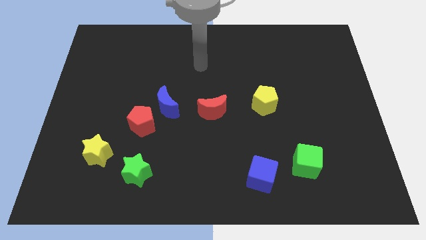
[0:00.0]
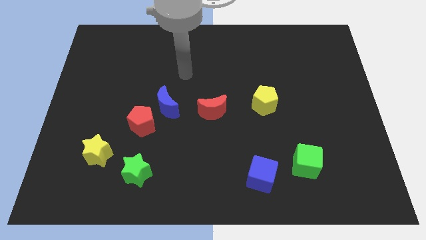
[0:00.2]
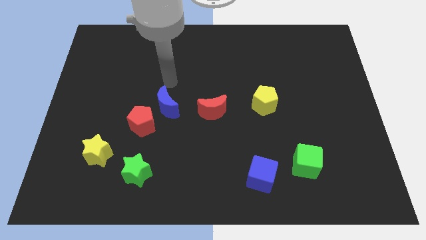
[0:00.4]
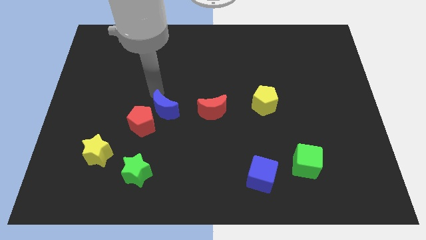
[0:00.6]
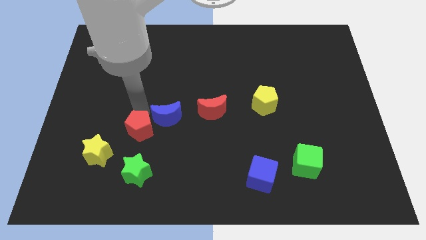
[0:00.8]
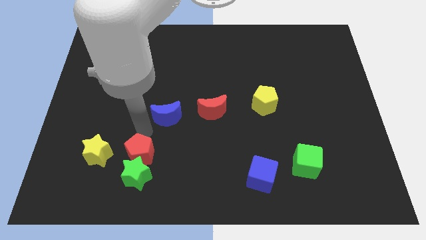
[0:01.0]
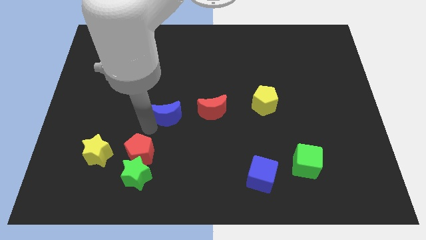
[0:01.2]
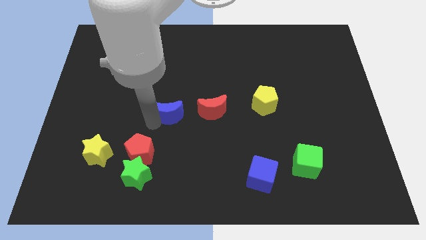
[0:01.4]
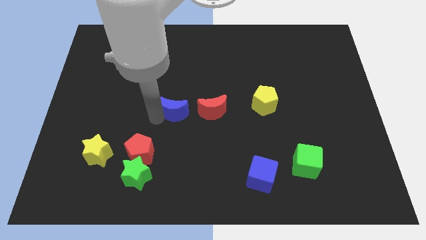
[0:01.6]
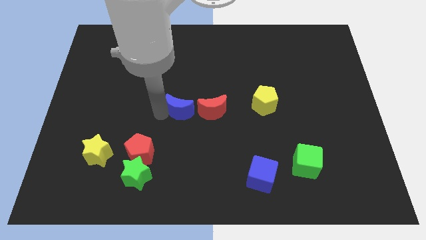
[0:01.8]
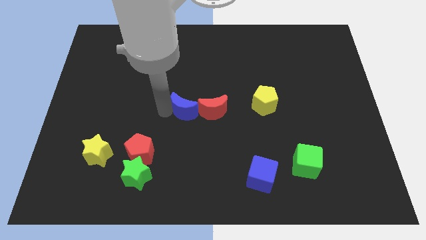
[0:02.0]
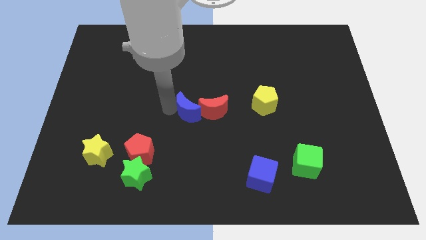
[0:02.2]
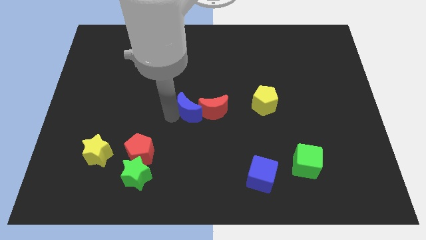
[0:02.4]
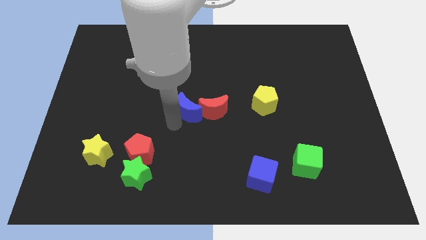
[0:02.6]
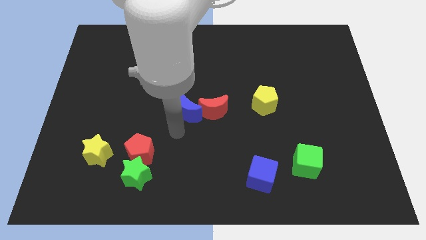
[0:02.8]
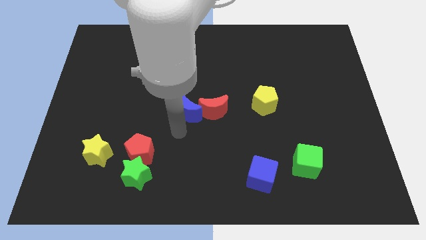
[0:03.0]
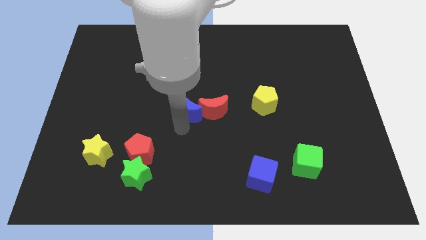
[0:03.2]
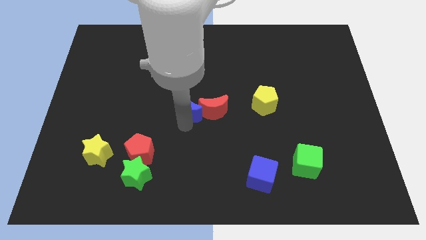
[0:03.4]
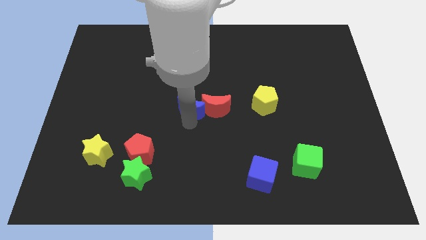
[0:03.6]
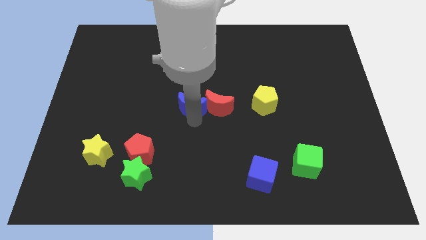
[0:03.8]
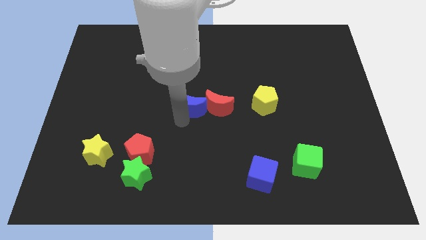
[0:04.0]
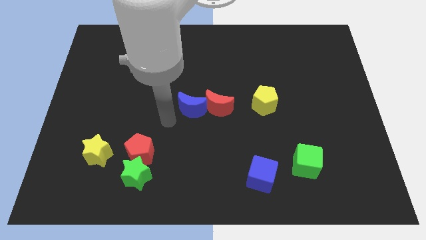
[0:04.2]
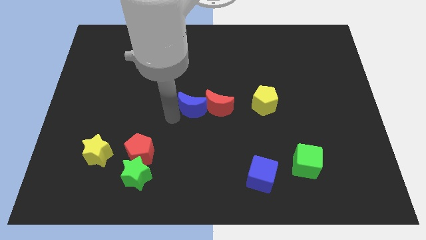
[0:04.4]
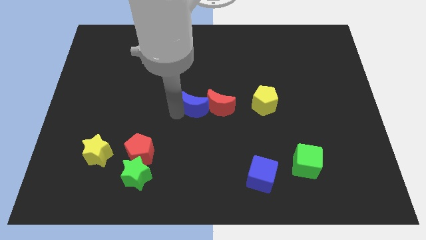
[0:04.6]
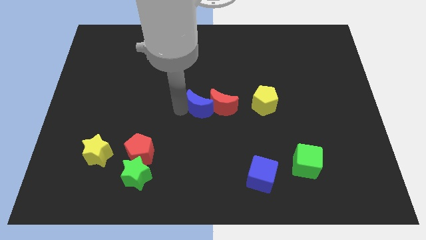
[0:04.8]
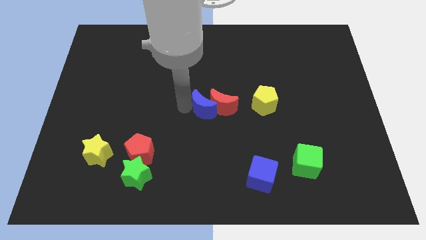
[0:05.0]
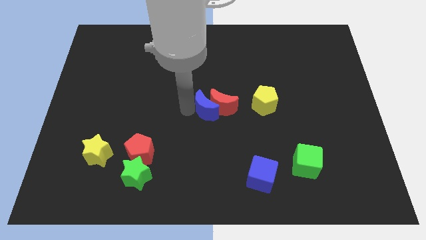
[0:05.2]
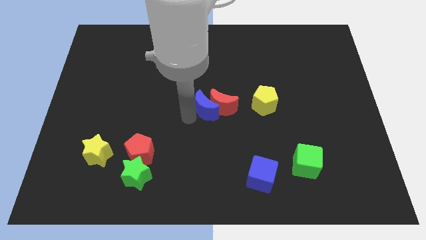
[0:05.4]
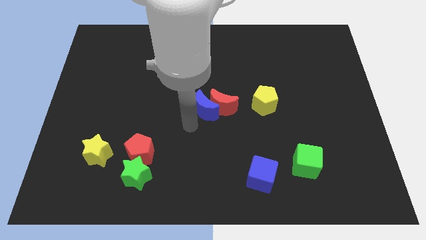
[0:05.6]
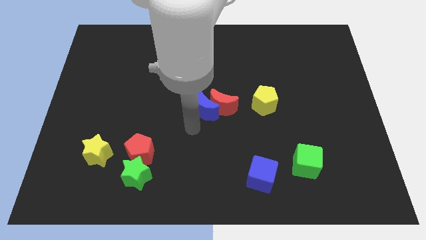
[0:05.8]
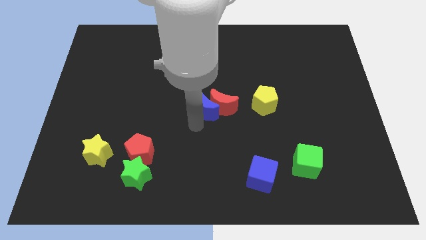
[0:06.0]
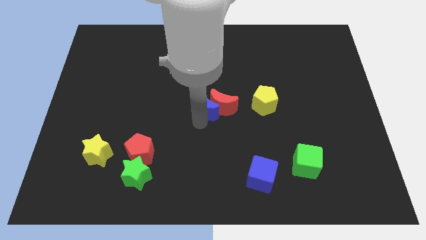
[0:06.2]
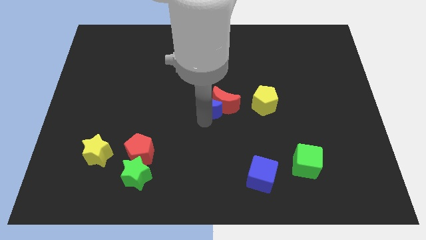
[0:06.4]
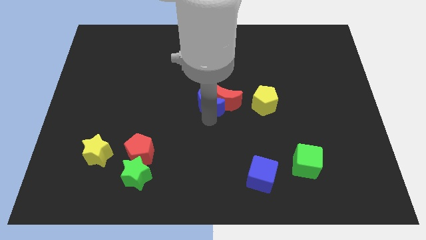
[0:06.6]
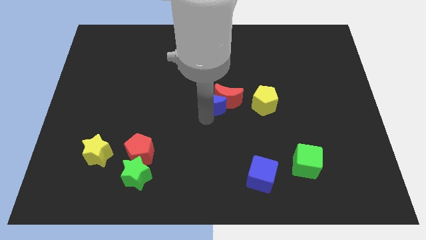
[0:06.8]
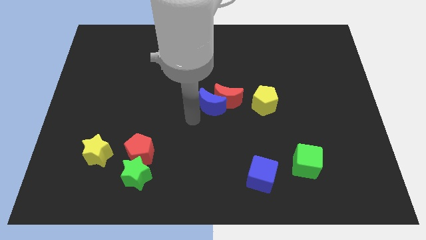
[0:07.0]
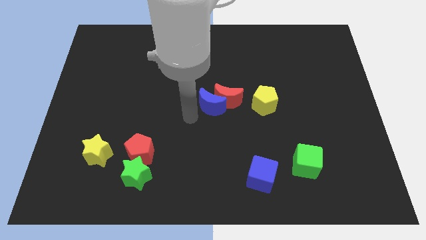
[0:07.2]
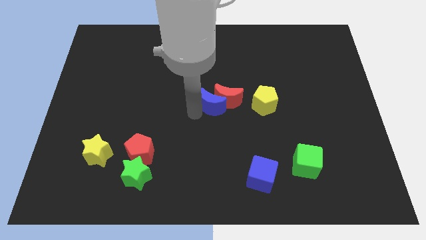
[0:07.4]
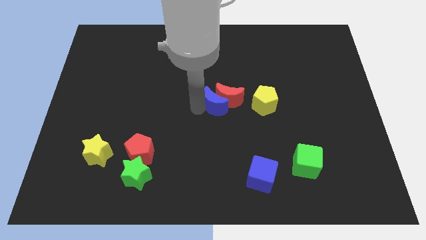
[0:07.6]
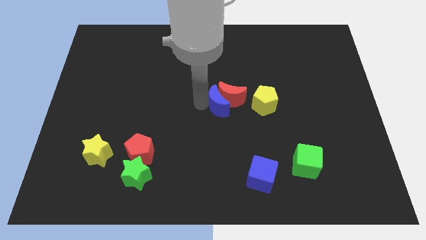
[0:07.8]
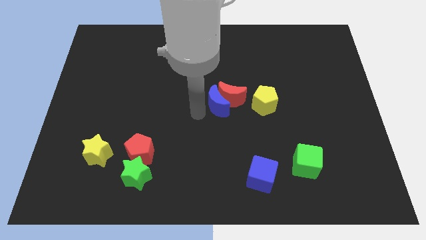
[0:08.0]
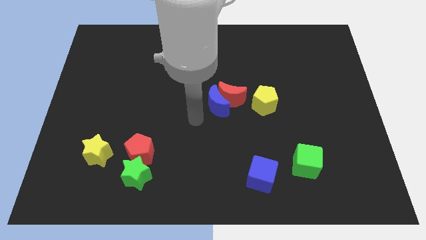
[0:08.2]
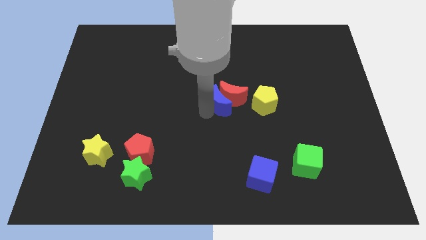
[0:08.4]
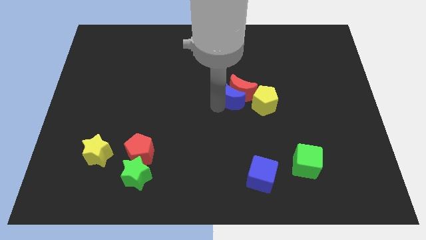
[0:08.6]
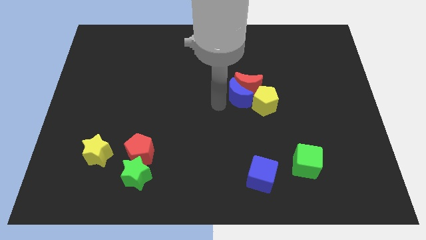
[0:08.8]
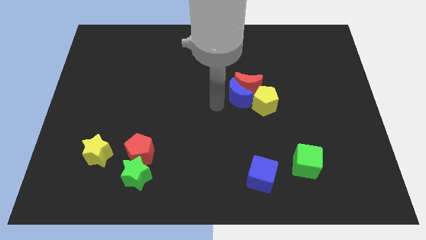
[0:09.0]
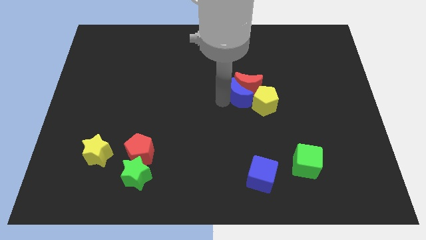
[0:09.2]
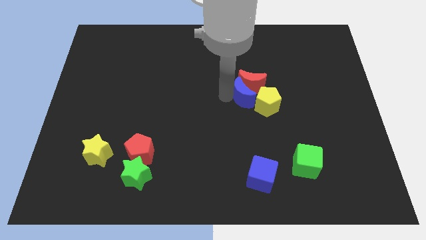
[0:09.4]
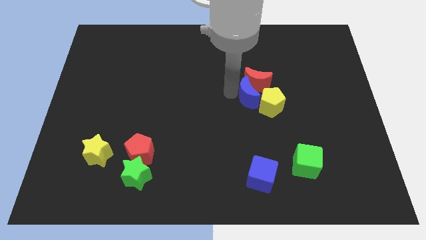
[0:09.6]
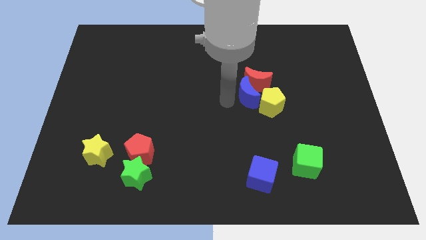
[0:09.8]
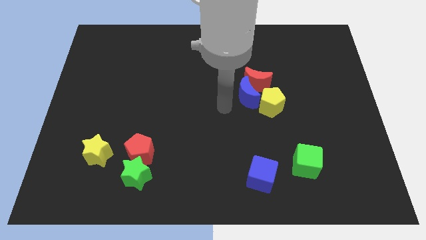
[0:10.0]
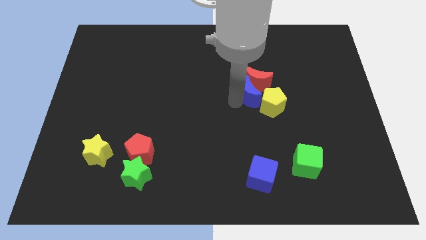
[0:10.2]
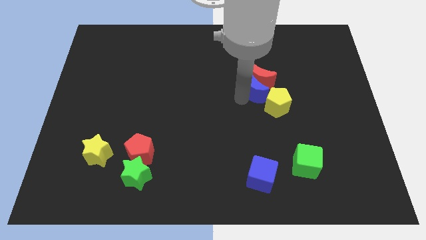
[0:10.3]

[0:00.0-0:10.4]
slide the blue moon to the right

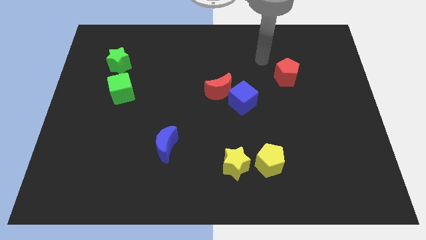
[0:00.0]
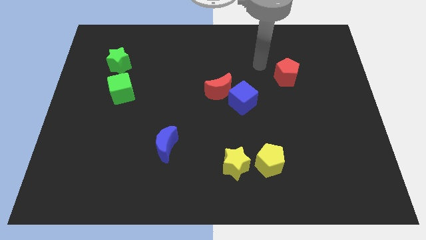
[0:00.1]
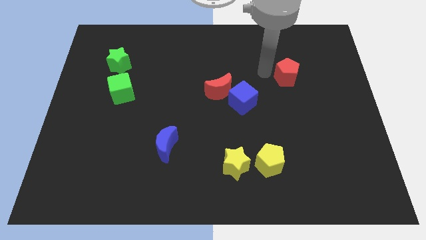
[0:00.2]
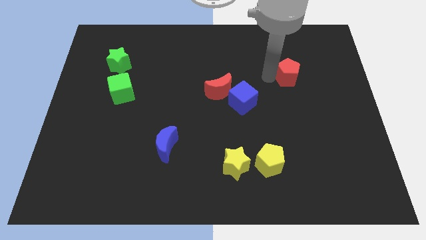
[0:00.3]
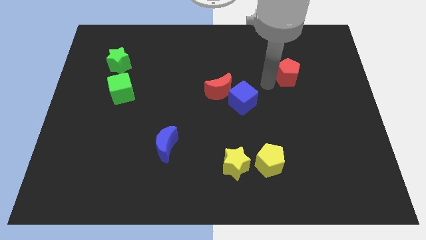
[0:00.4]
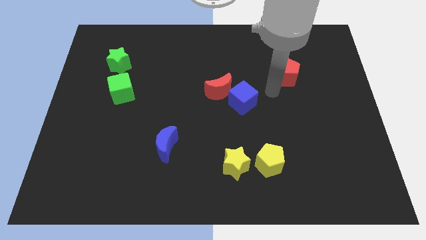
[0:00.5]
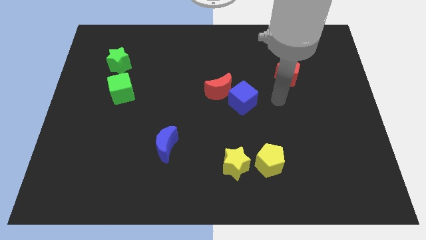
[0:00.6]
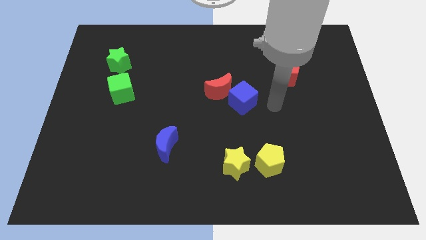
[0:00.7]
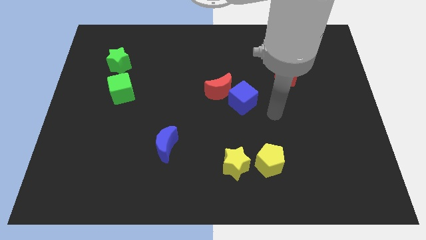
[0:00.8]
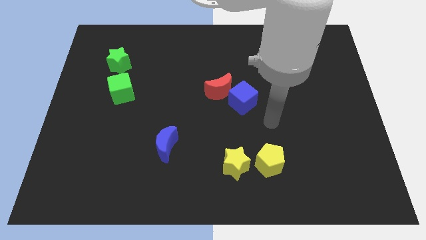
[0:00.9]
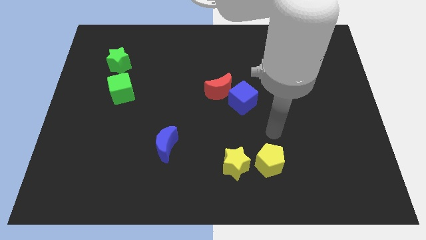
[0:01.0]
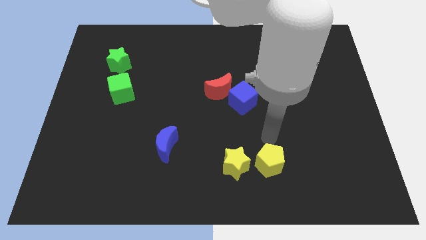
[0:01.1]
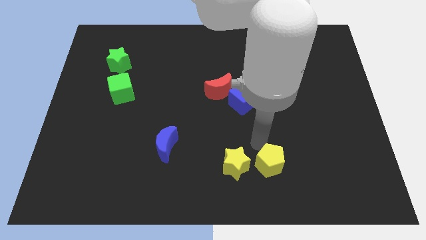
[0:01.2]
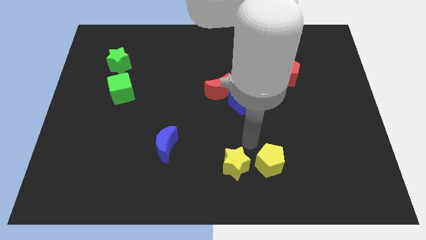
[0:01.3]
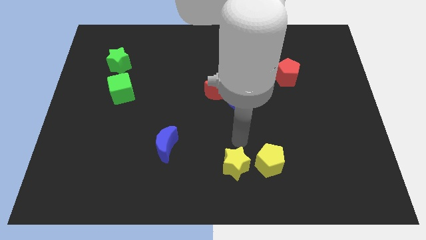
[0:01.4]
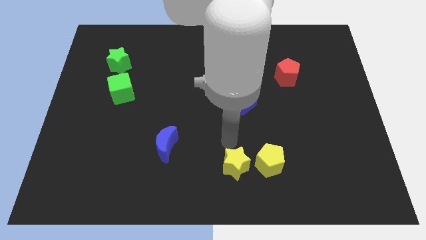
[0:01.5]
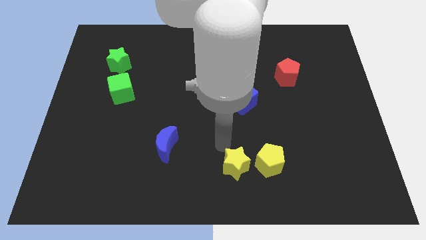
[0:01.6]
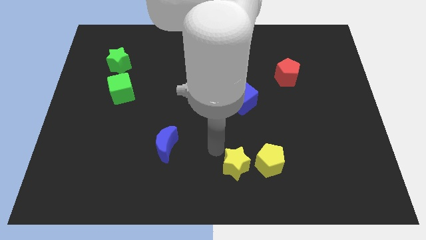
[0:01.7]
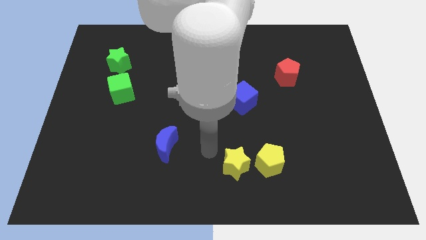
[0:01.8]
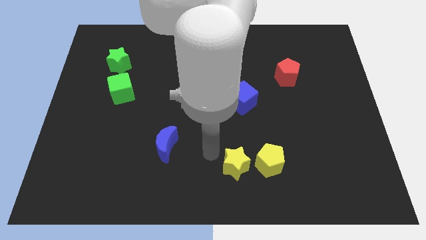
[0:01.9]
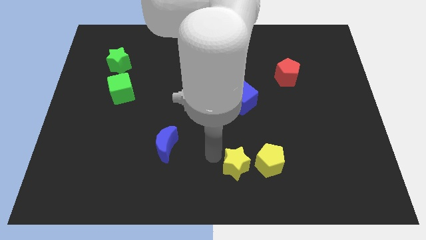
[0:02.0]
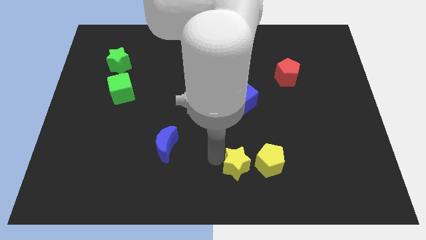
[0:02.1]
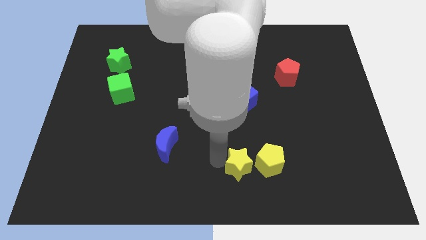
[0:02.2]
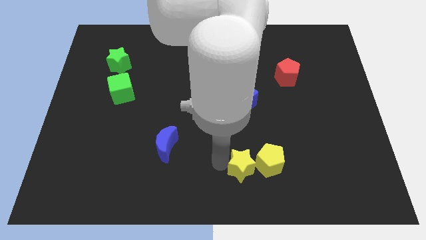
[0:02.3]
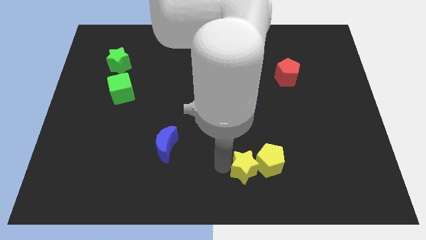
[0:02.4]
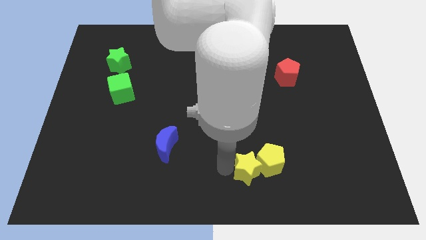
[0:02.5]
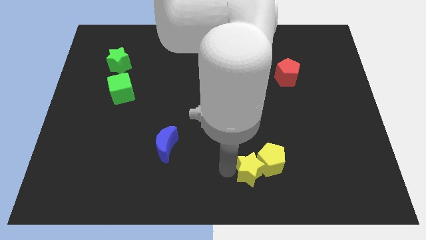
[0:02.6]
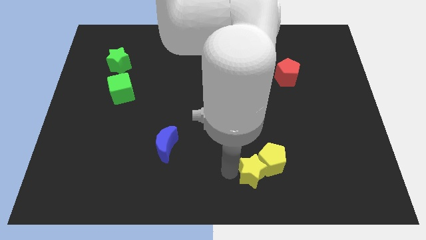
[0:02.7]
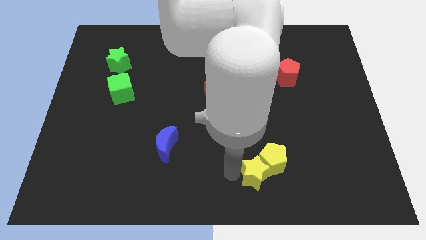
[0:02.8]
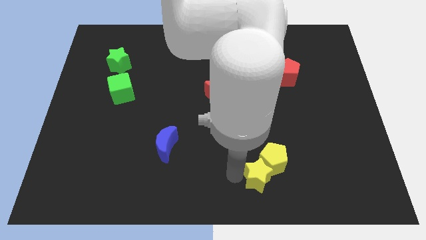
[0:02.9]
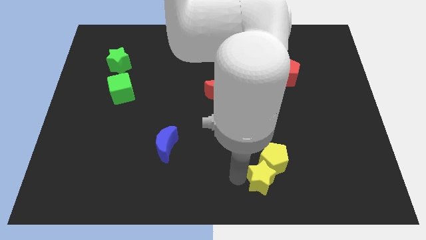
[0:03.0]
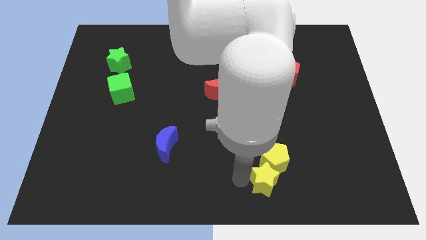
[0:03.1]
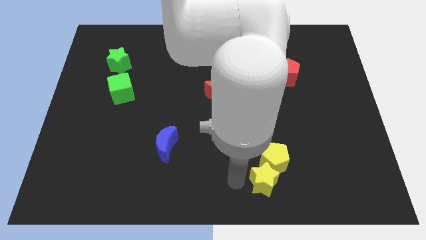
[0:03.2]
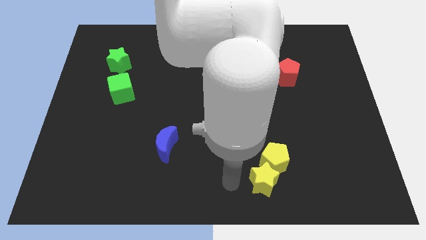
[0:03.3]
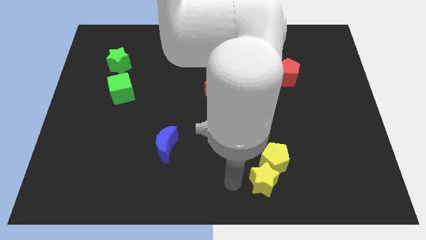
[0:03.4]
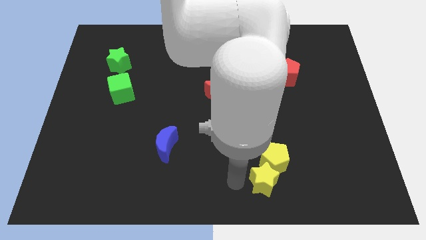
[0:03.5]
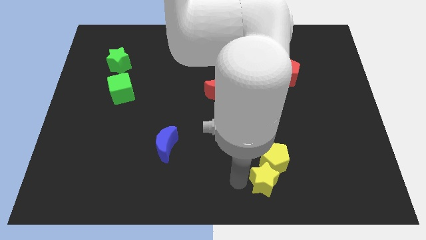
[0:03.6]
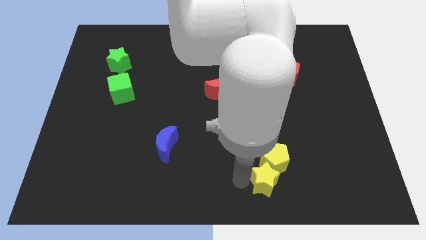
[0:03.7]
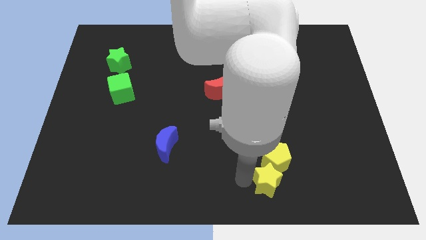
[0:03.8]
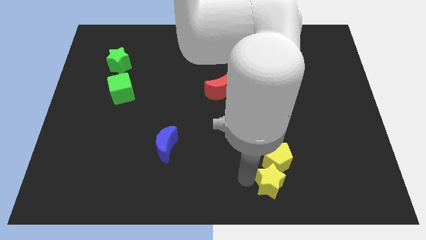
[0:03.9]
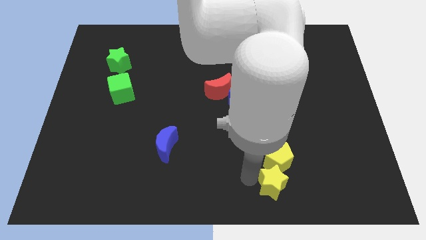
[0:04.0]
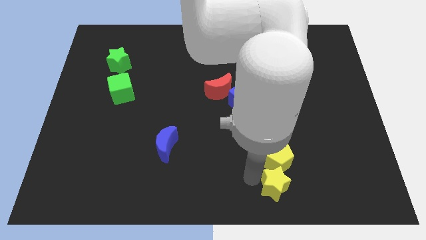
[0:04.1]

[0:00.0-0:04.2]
move the yellow star to the right slightly
